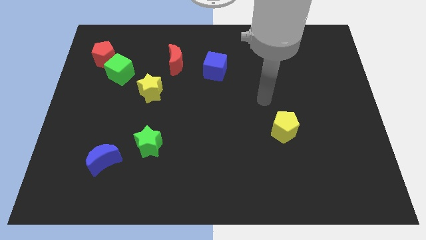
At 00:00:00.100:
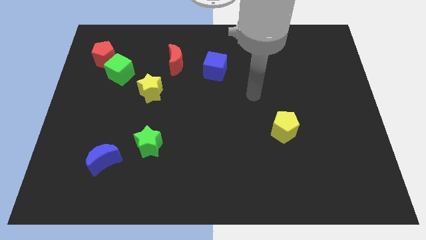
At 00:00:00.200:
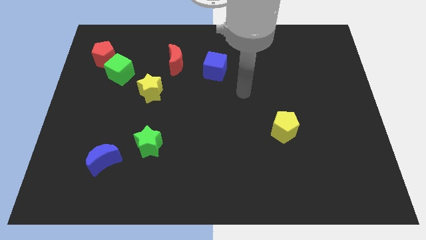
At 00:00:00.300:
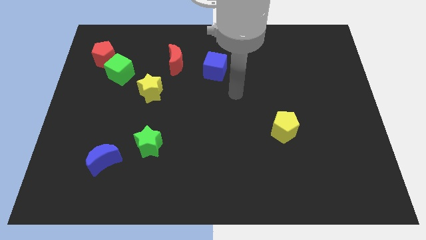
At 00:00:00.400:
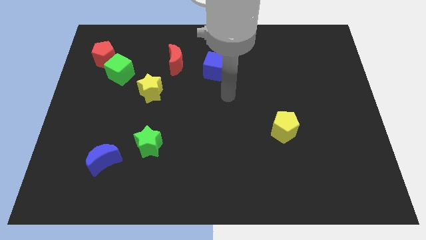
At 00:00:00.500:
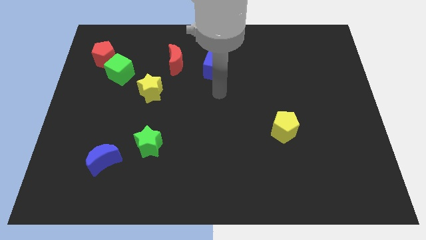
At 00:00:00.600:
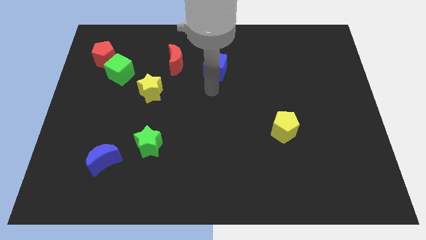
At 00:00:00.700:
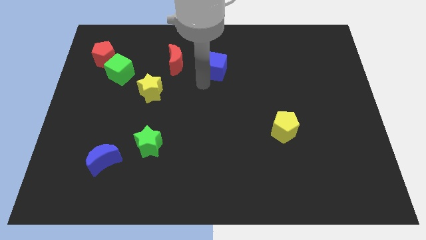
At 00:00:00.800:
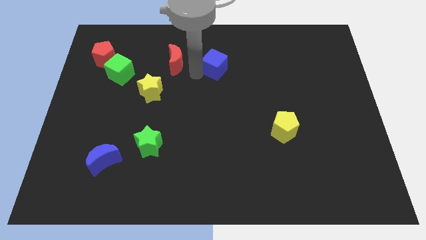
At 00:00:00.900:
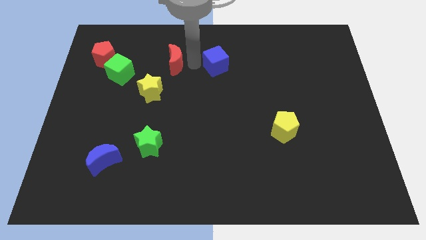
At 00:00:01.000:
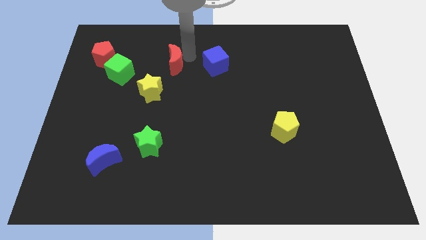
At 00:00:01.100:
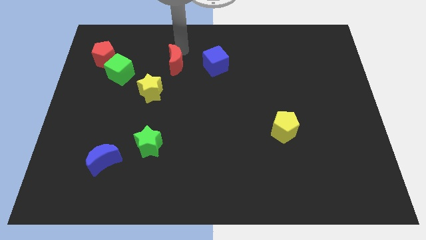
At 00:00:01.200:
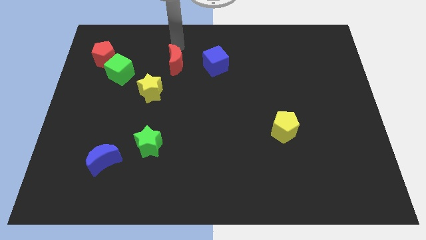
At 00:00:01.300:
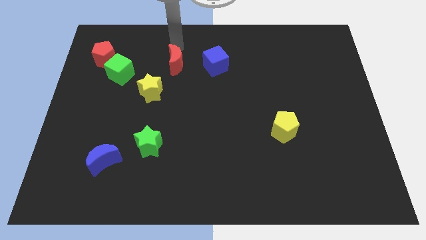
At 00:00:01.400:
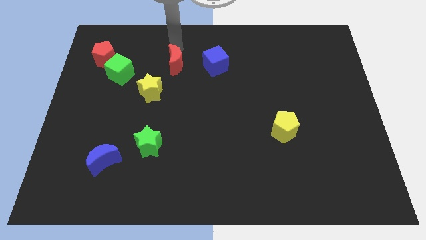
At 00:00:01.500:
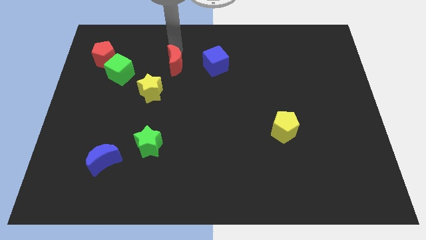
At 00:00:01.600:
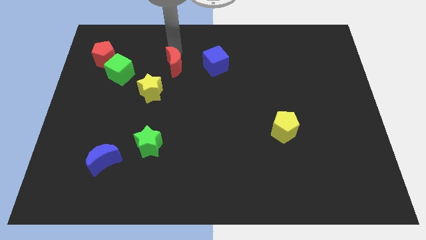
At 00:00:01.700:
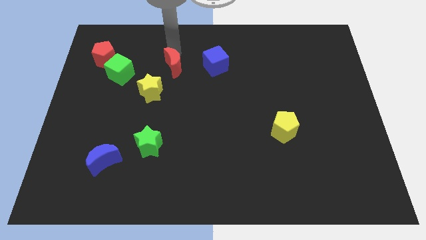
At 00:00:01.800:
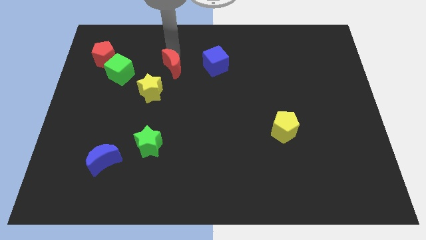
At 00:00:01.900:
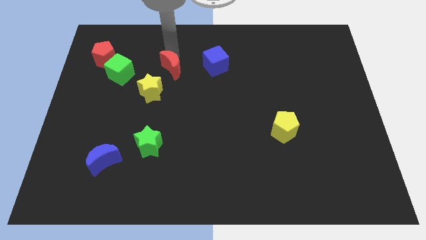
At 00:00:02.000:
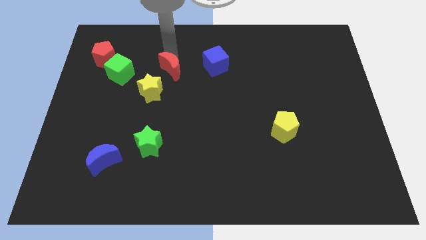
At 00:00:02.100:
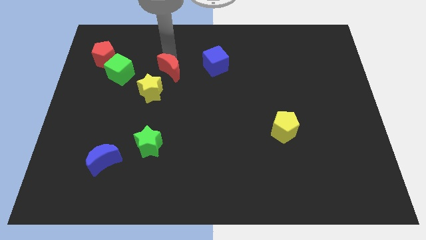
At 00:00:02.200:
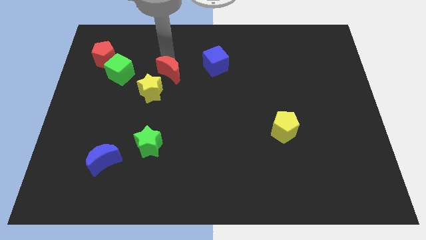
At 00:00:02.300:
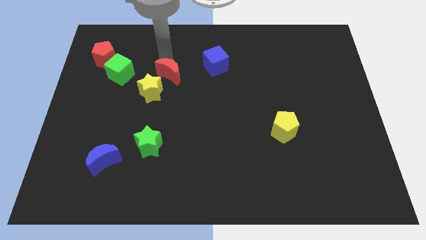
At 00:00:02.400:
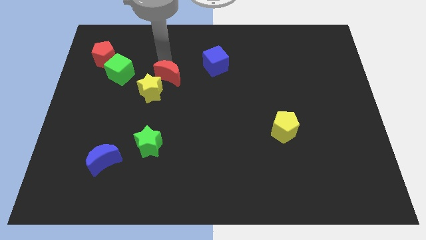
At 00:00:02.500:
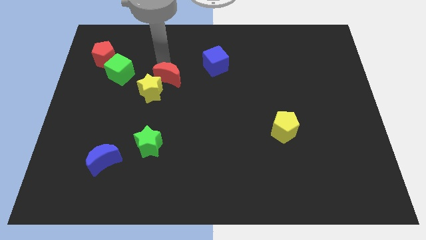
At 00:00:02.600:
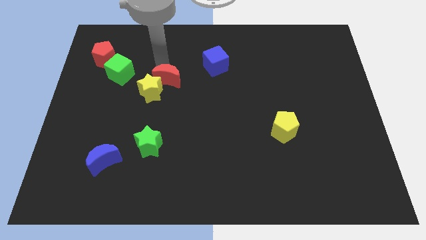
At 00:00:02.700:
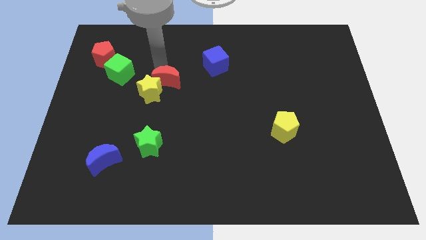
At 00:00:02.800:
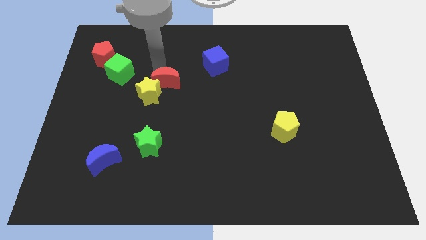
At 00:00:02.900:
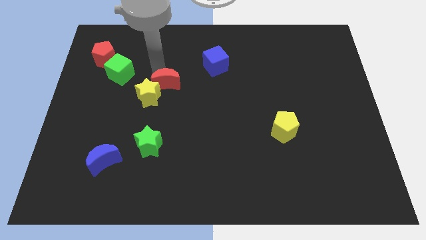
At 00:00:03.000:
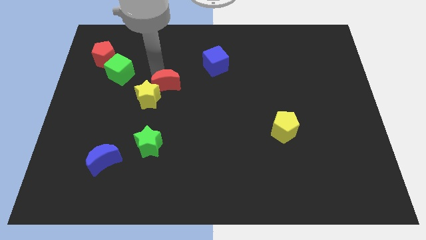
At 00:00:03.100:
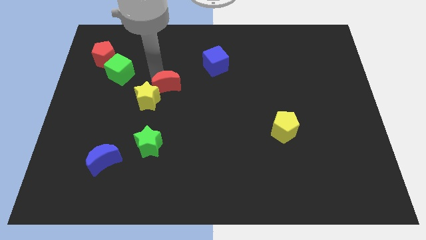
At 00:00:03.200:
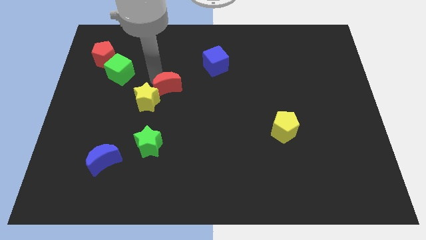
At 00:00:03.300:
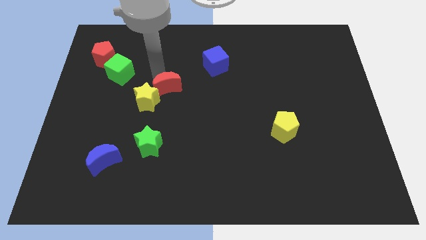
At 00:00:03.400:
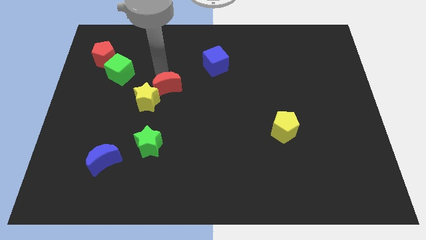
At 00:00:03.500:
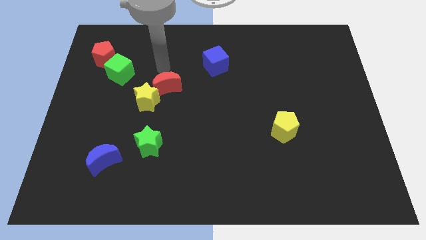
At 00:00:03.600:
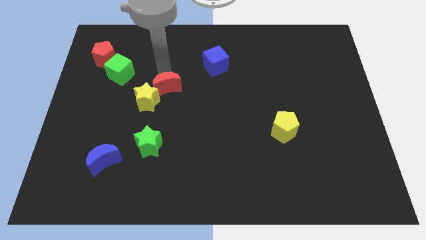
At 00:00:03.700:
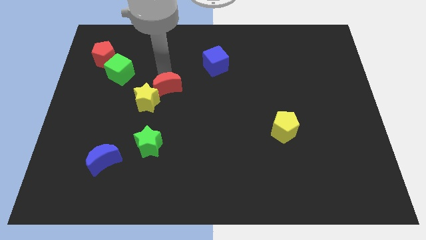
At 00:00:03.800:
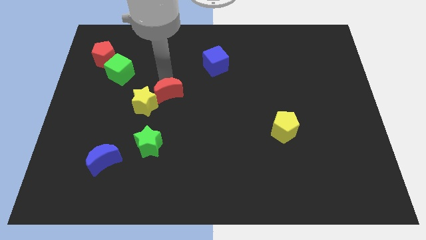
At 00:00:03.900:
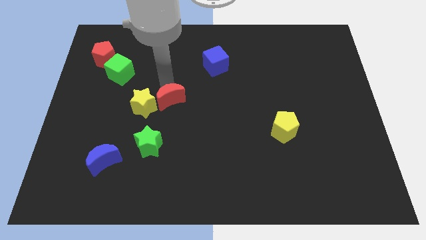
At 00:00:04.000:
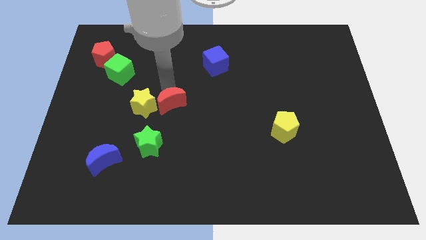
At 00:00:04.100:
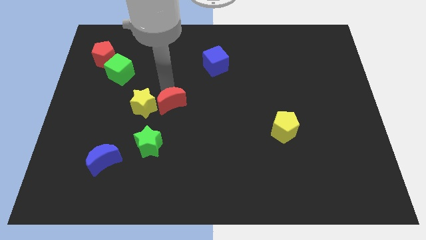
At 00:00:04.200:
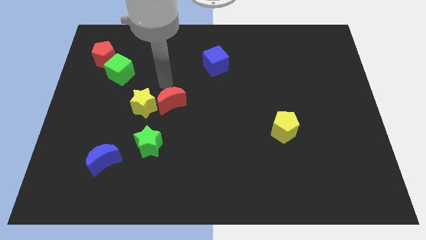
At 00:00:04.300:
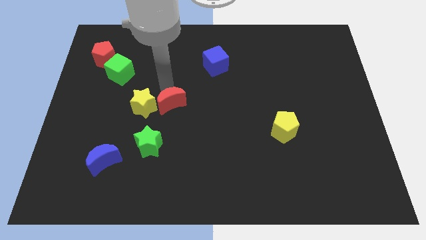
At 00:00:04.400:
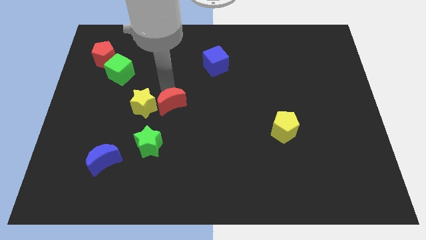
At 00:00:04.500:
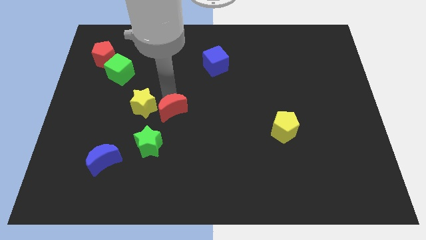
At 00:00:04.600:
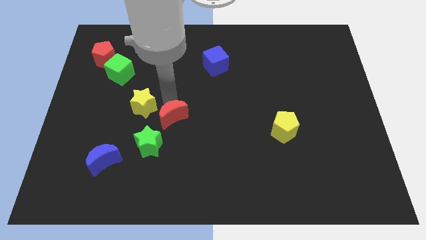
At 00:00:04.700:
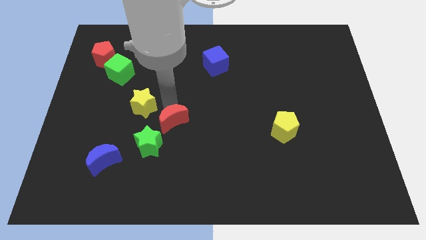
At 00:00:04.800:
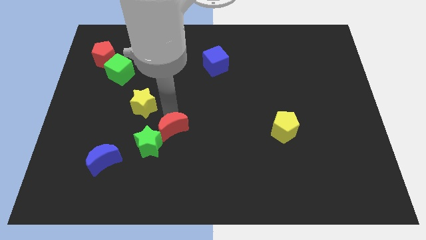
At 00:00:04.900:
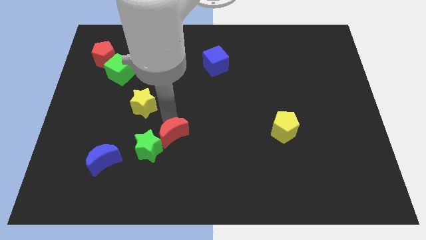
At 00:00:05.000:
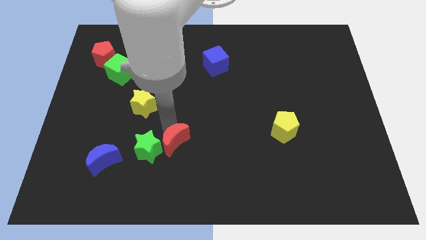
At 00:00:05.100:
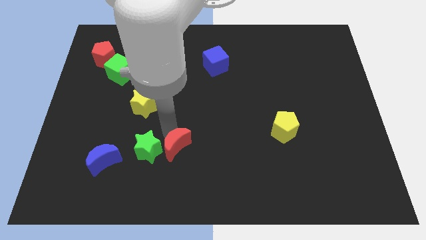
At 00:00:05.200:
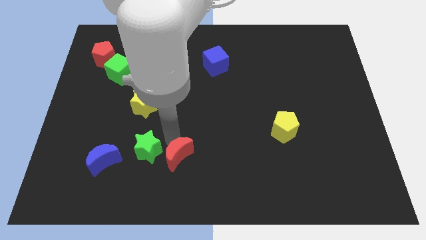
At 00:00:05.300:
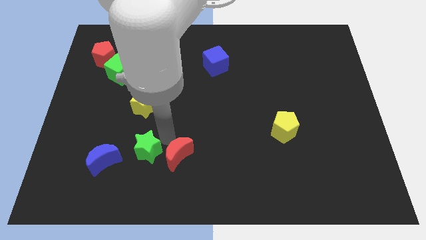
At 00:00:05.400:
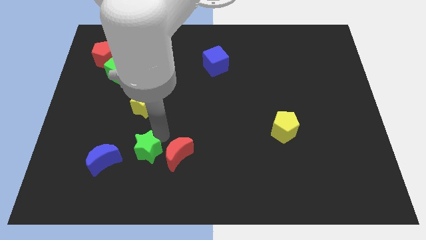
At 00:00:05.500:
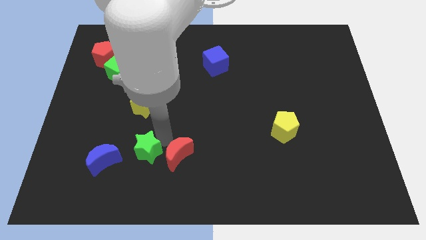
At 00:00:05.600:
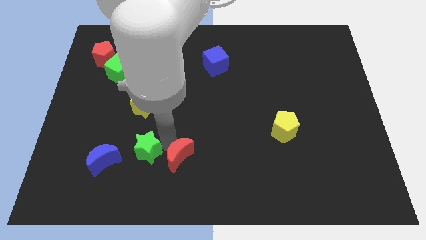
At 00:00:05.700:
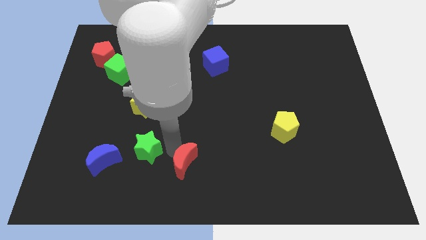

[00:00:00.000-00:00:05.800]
move the red moon to the bottom side
